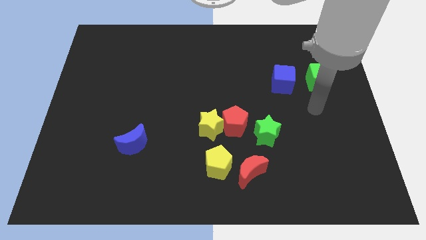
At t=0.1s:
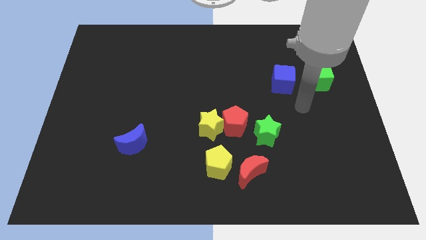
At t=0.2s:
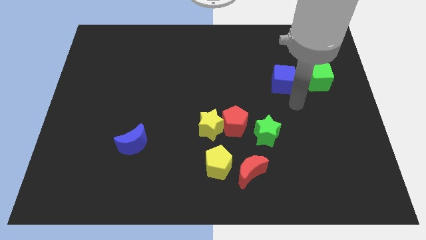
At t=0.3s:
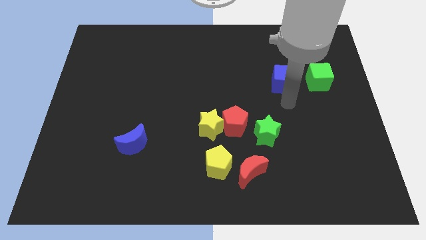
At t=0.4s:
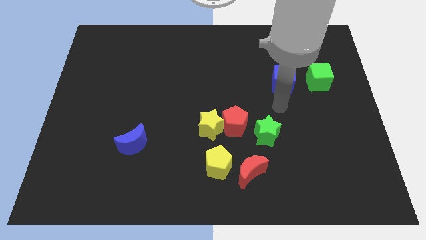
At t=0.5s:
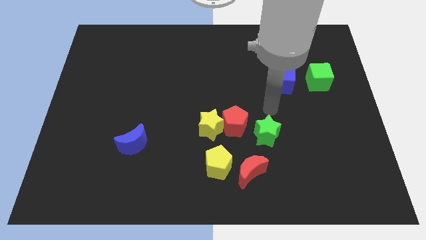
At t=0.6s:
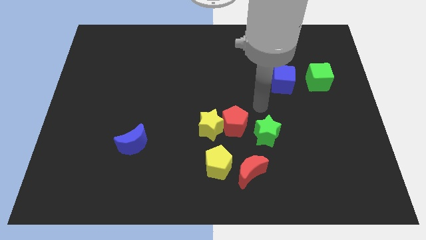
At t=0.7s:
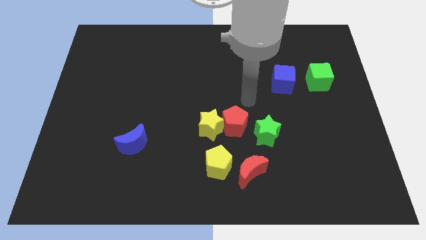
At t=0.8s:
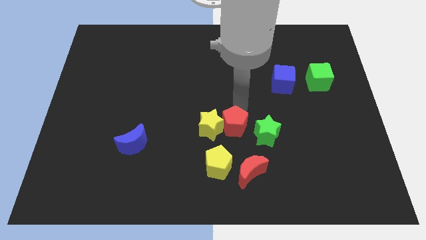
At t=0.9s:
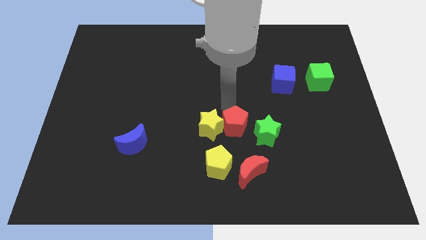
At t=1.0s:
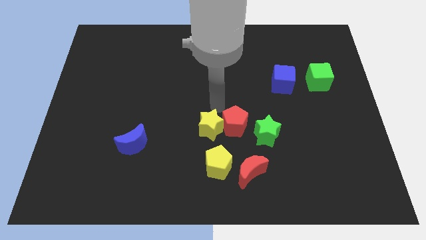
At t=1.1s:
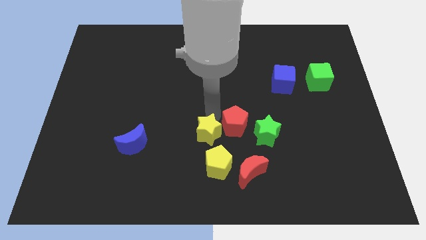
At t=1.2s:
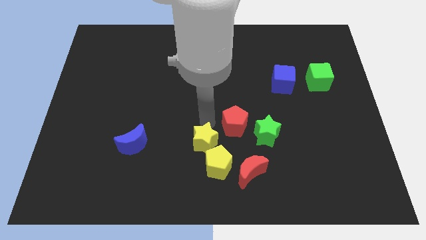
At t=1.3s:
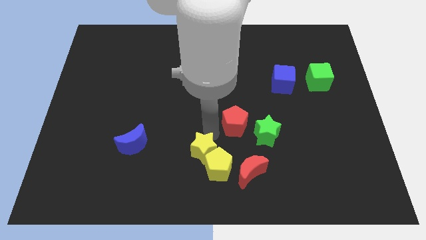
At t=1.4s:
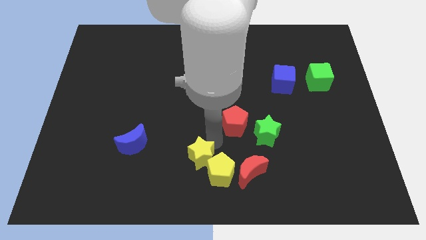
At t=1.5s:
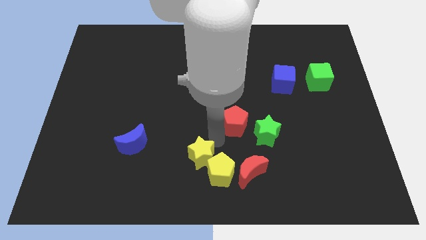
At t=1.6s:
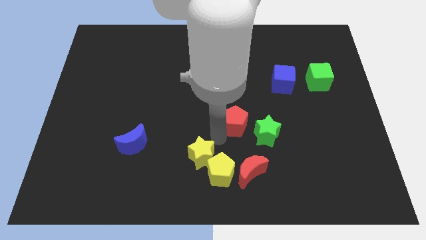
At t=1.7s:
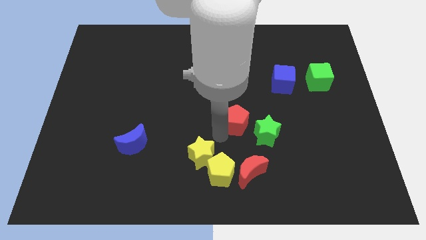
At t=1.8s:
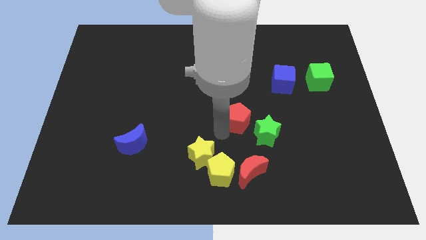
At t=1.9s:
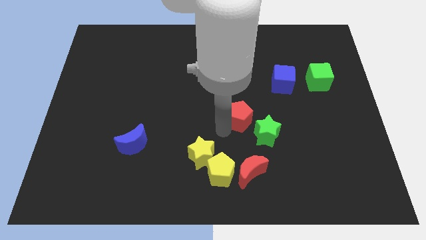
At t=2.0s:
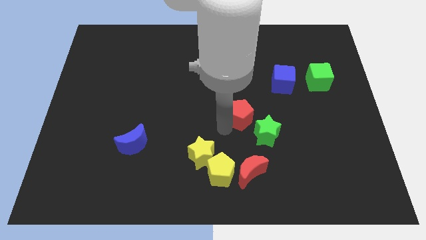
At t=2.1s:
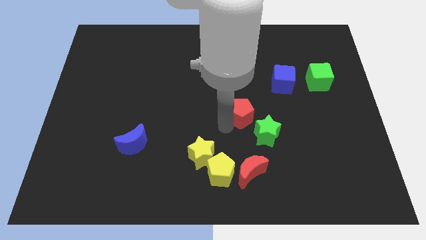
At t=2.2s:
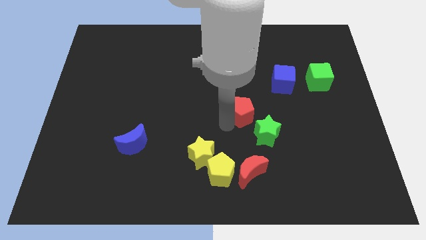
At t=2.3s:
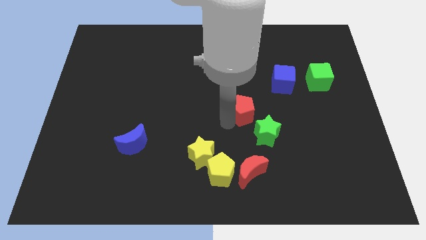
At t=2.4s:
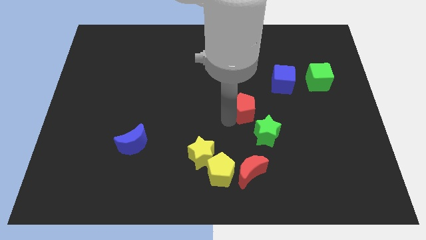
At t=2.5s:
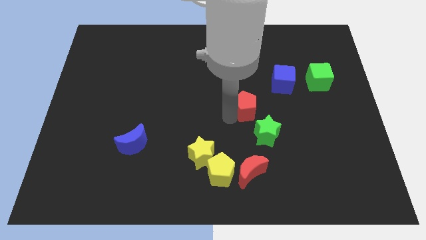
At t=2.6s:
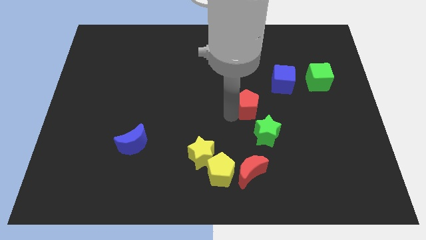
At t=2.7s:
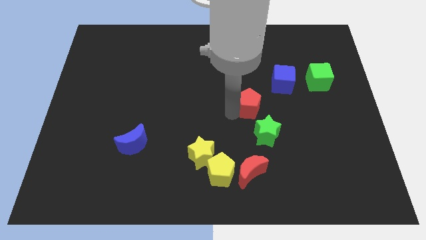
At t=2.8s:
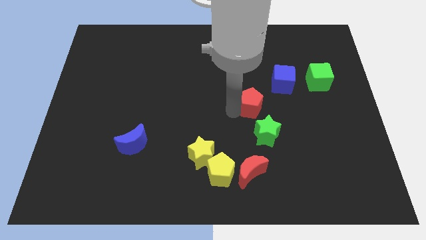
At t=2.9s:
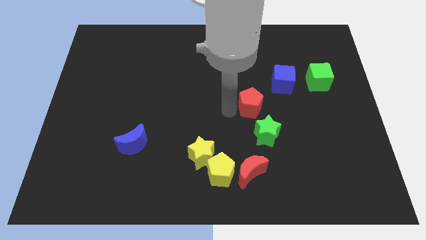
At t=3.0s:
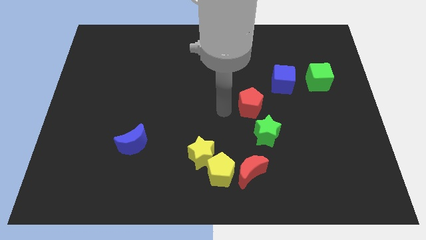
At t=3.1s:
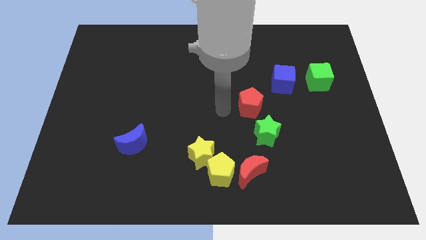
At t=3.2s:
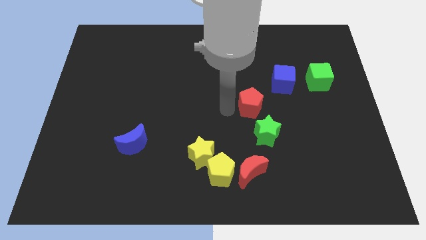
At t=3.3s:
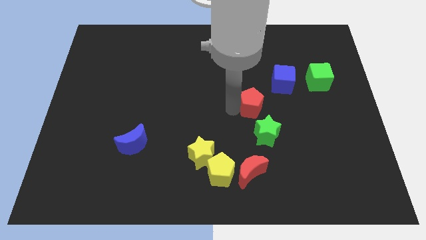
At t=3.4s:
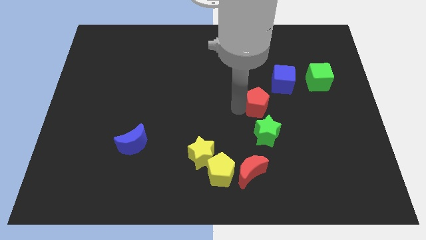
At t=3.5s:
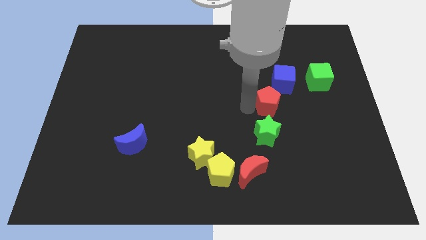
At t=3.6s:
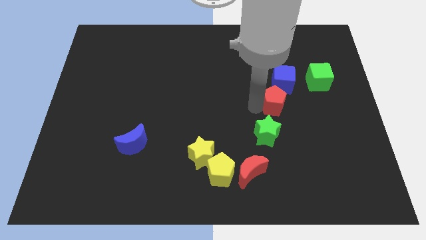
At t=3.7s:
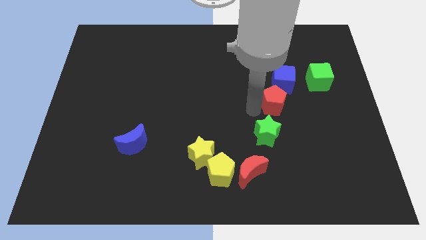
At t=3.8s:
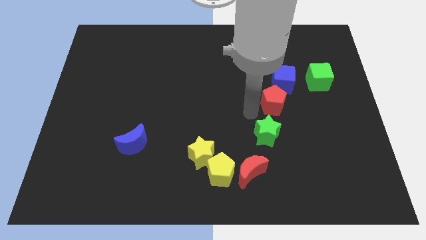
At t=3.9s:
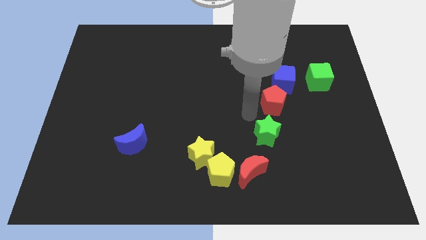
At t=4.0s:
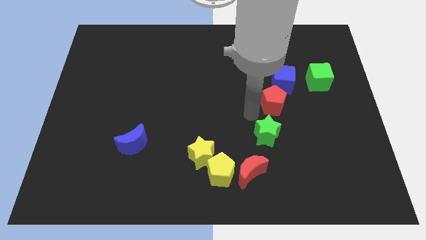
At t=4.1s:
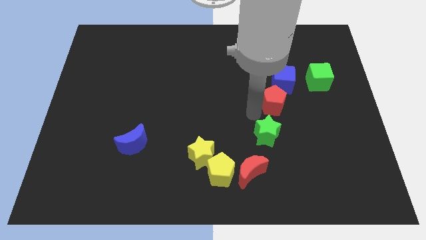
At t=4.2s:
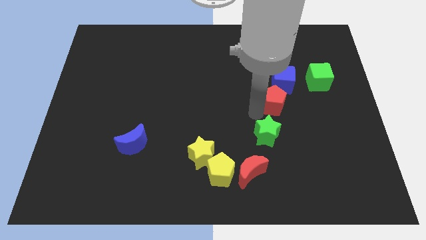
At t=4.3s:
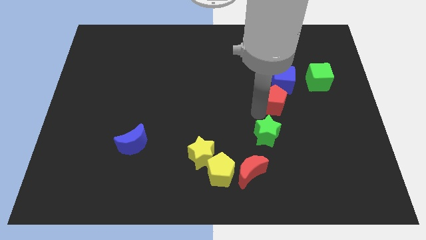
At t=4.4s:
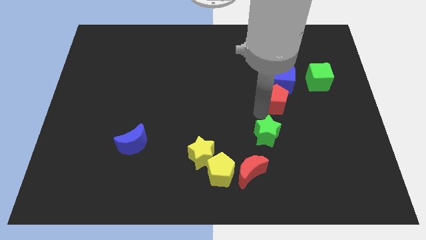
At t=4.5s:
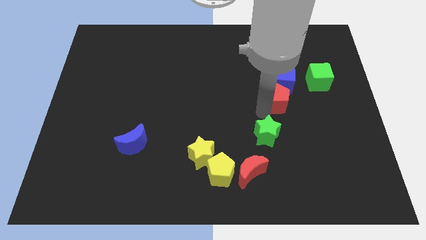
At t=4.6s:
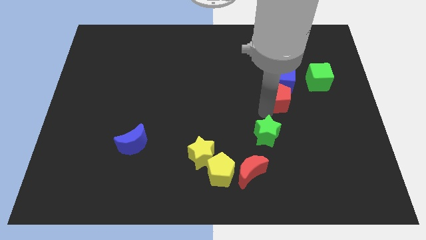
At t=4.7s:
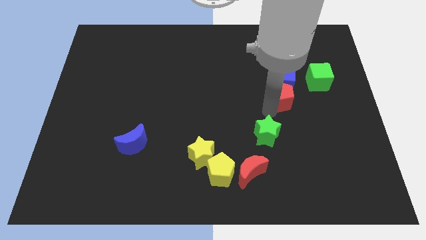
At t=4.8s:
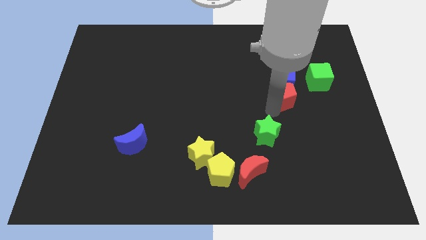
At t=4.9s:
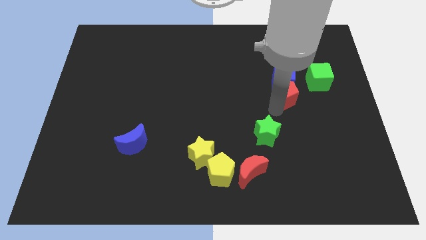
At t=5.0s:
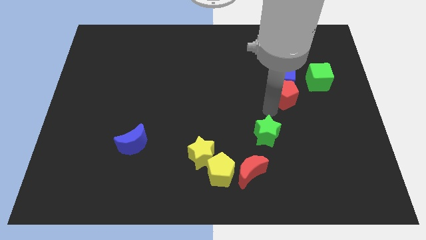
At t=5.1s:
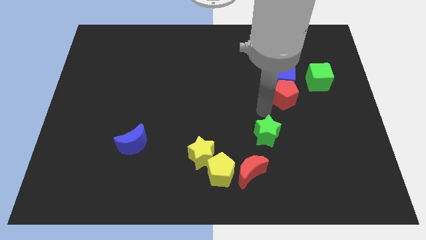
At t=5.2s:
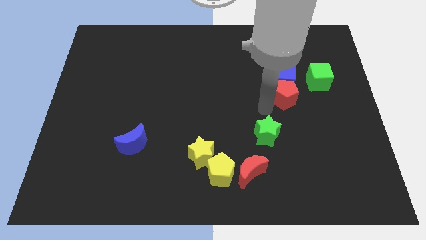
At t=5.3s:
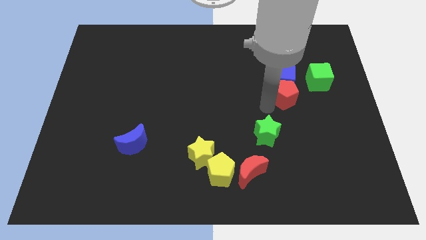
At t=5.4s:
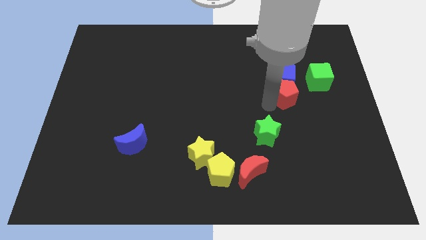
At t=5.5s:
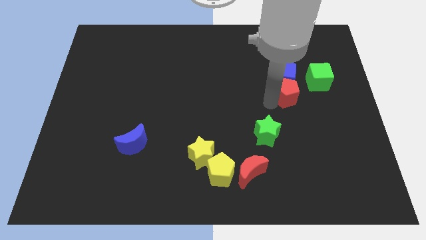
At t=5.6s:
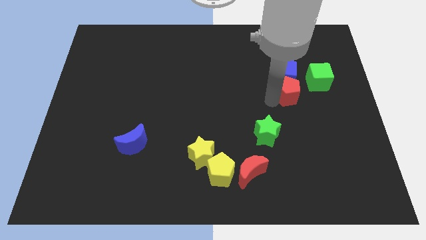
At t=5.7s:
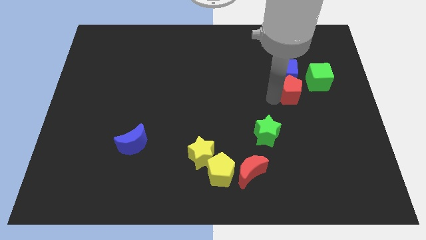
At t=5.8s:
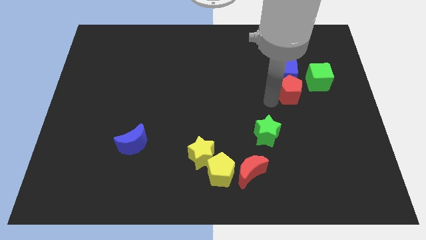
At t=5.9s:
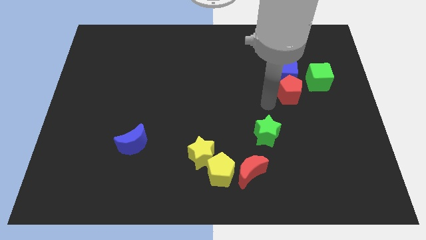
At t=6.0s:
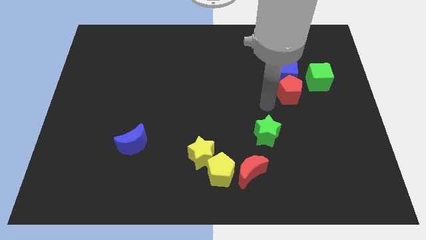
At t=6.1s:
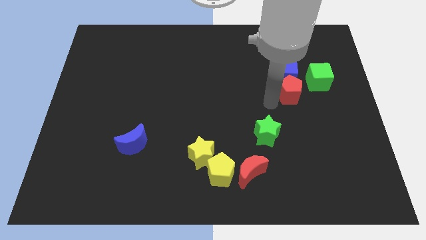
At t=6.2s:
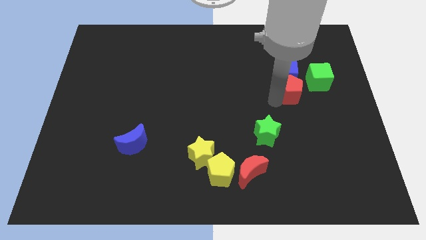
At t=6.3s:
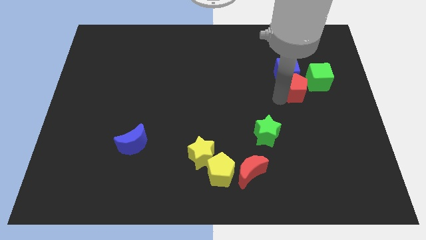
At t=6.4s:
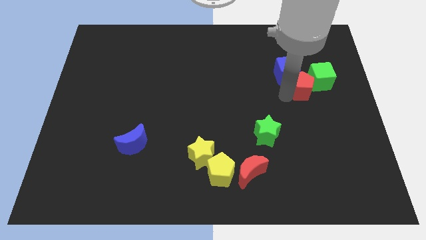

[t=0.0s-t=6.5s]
move the red pentagon towards the green cube
